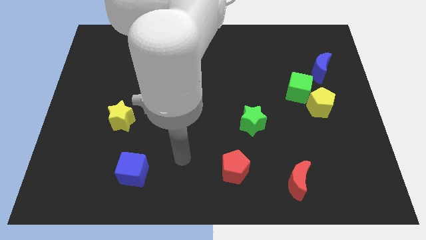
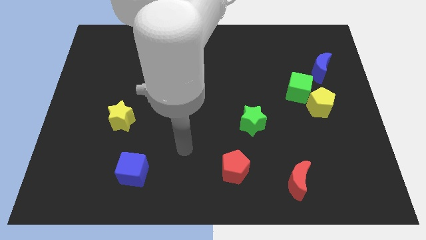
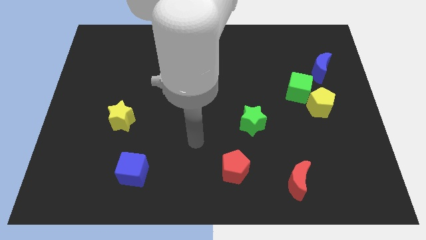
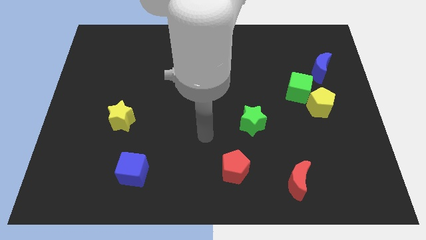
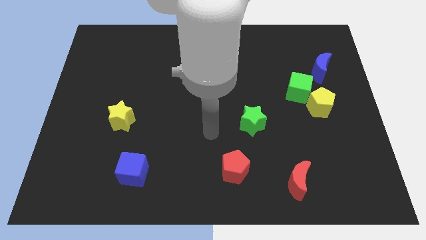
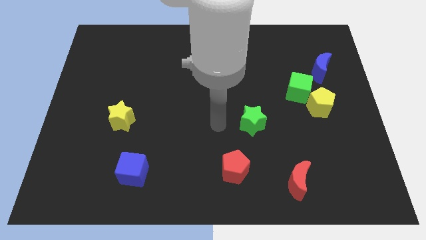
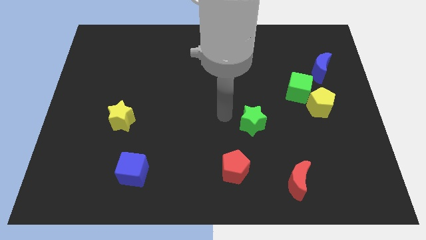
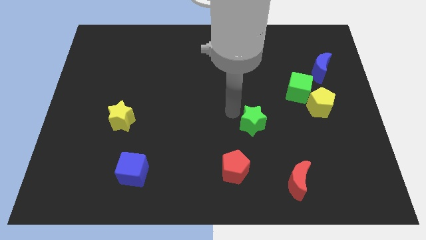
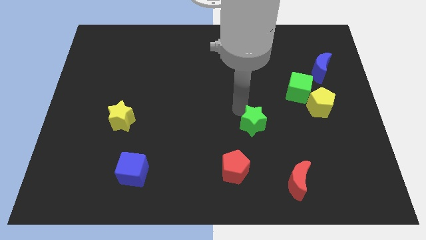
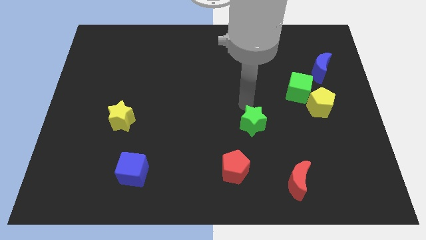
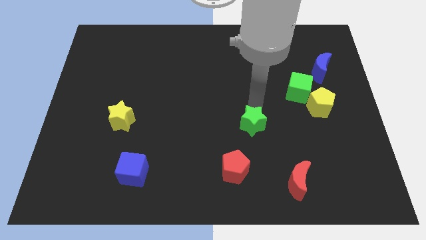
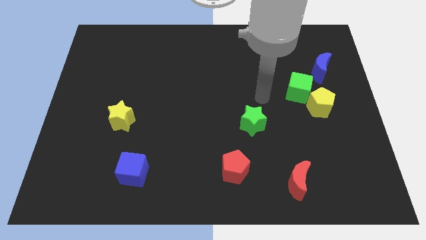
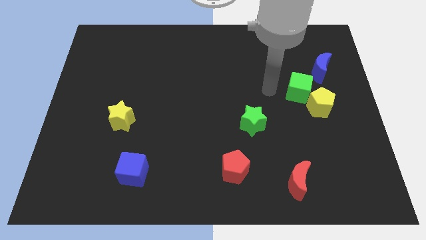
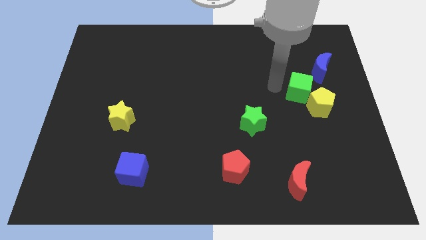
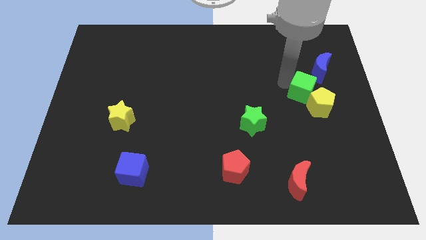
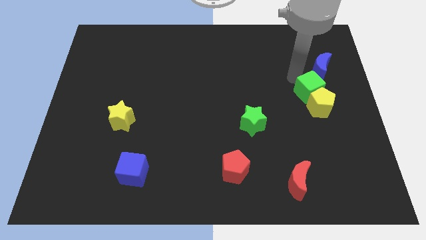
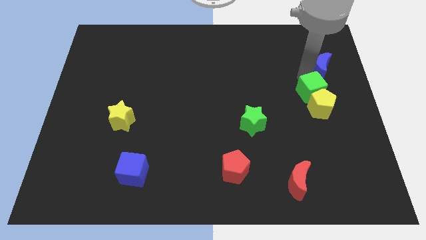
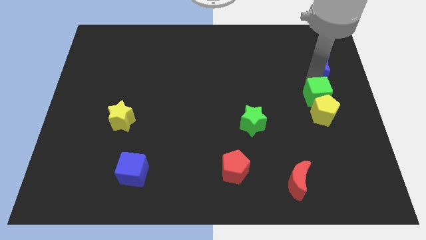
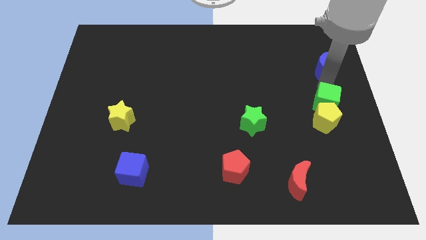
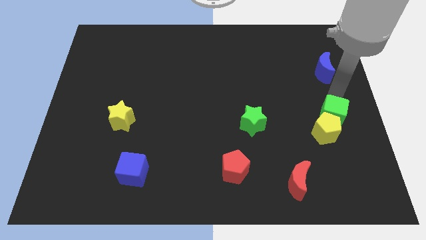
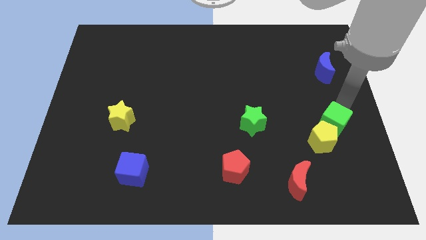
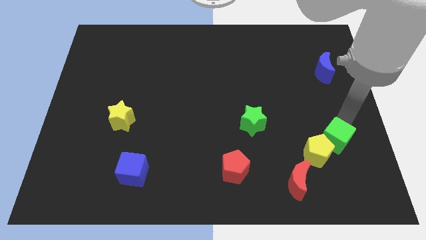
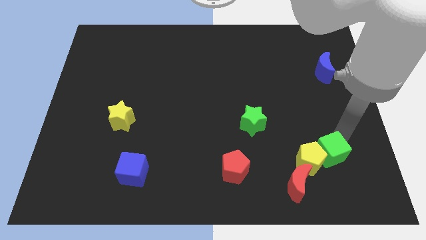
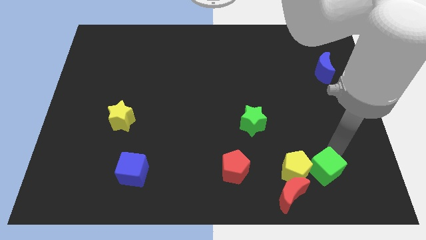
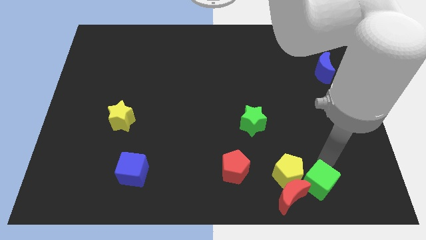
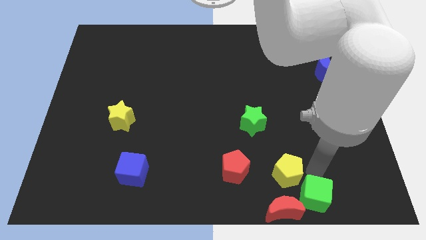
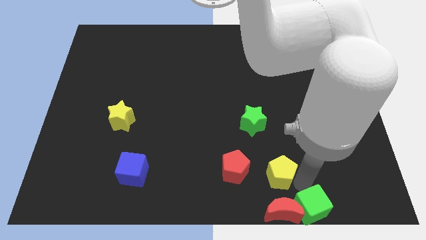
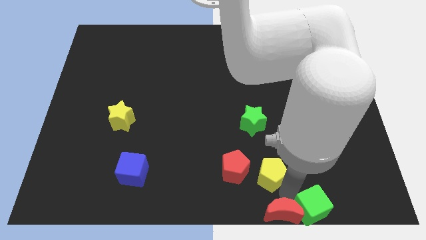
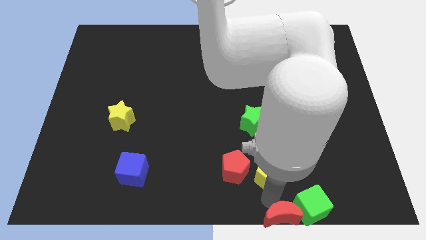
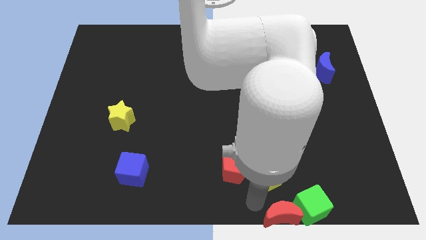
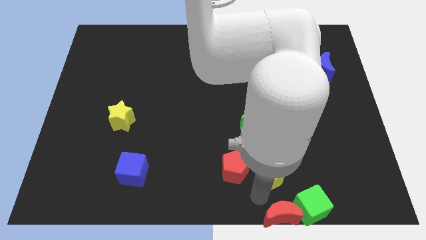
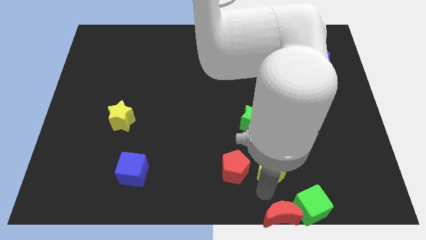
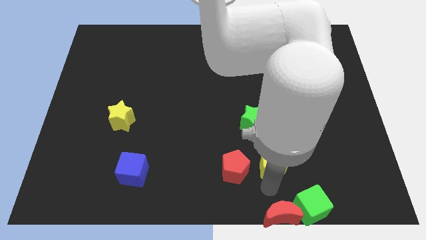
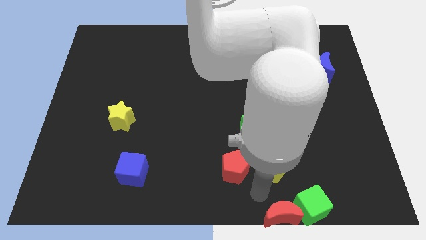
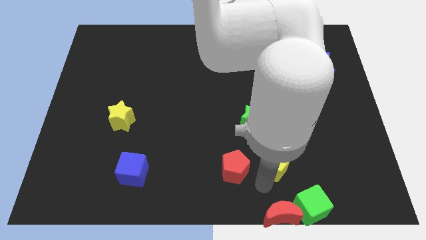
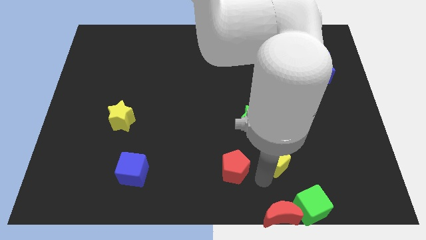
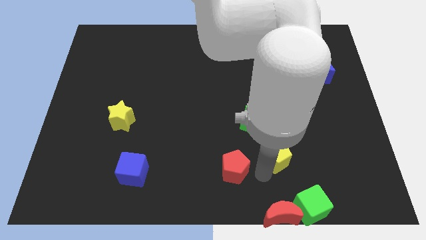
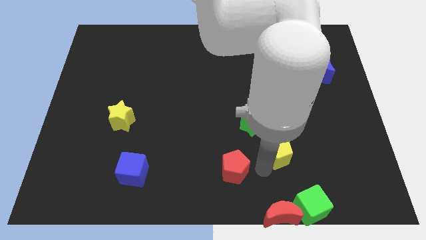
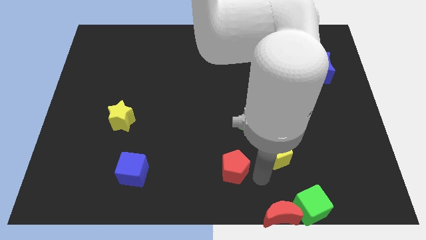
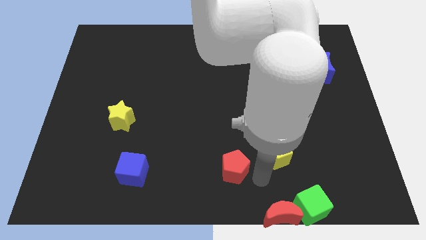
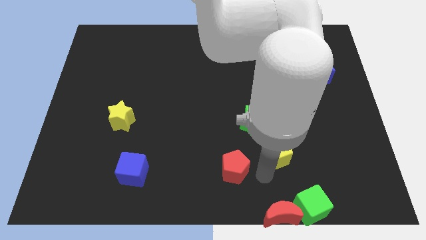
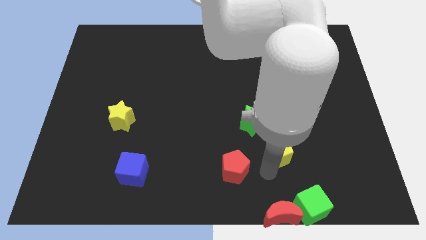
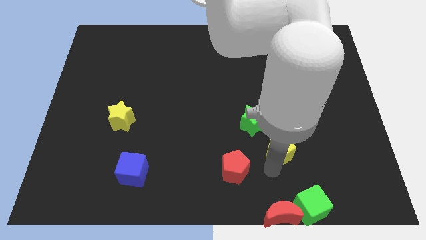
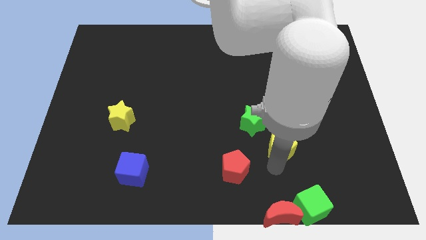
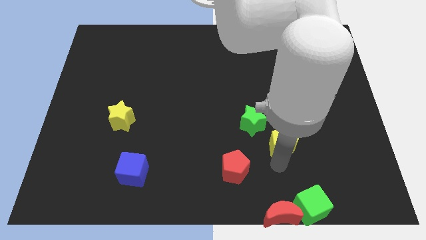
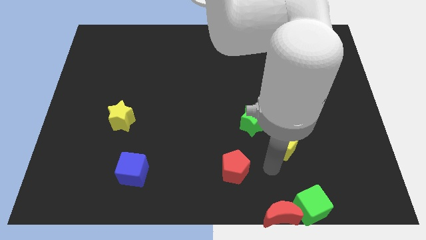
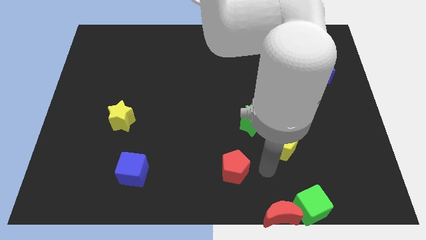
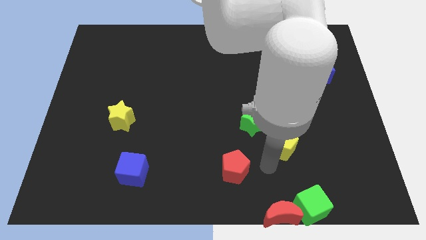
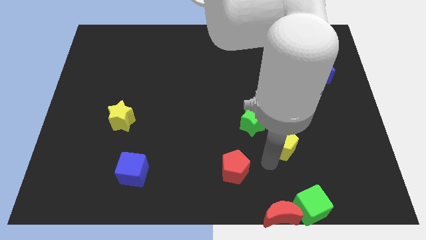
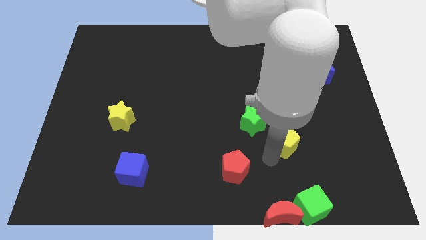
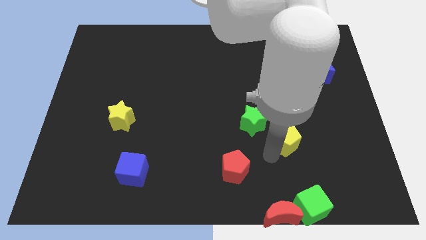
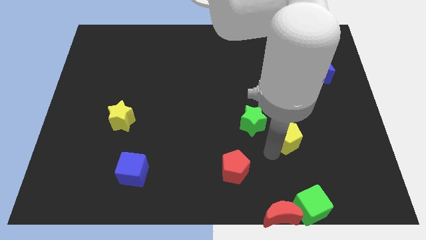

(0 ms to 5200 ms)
put the yellow pentagon right of the green star

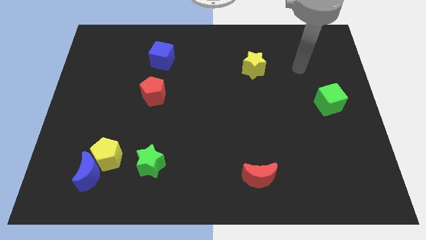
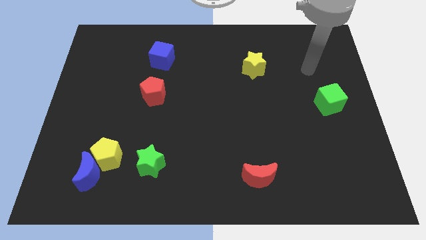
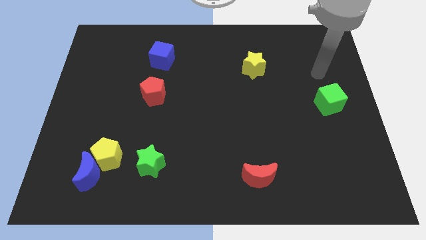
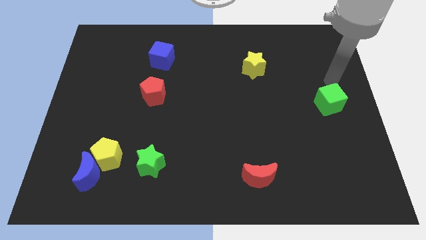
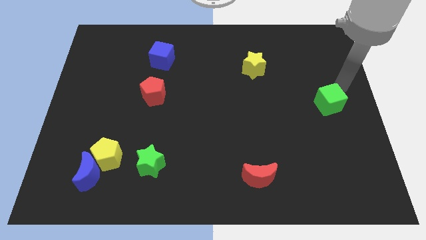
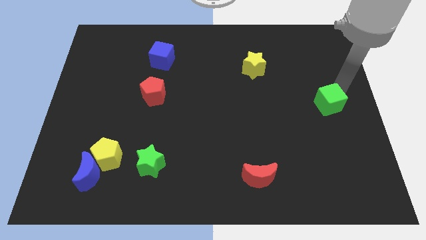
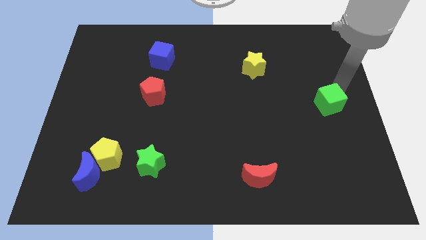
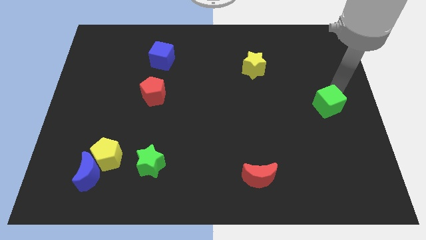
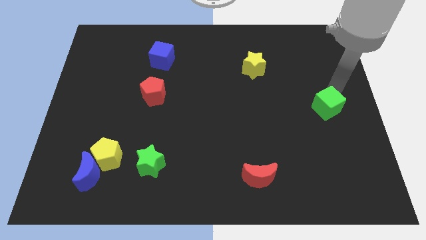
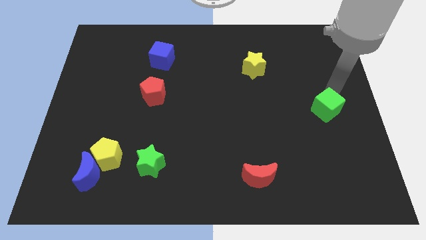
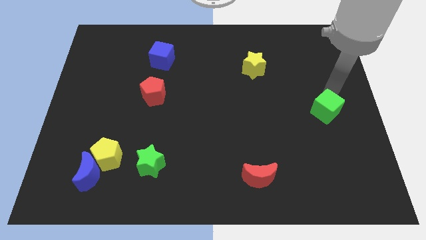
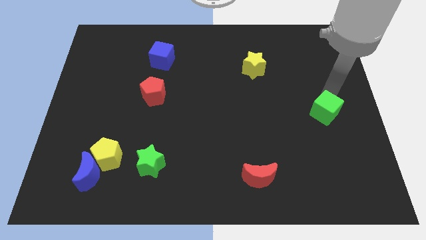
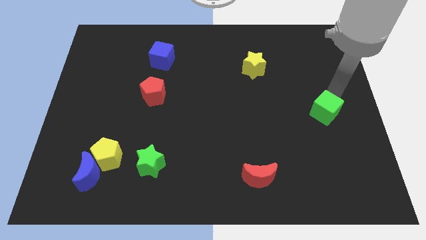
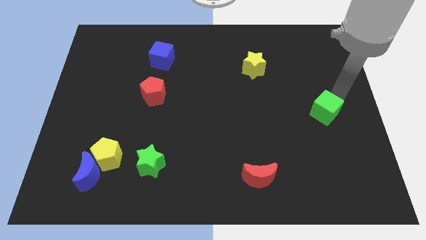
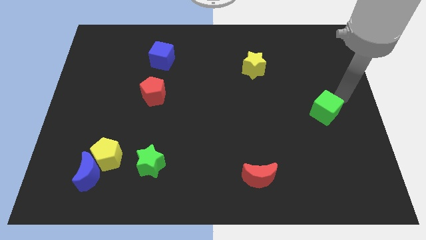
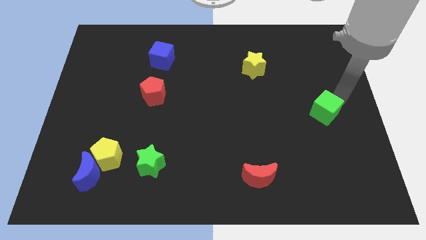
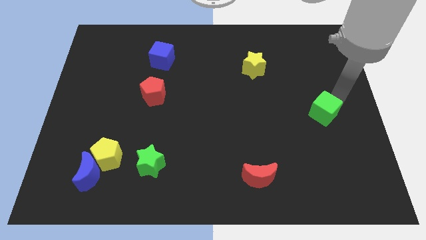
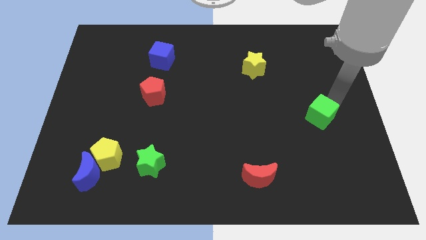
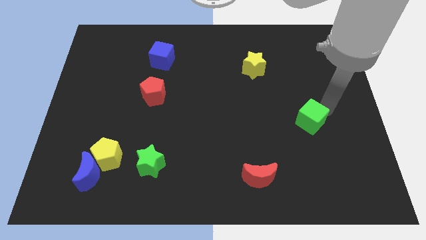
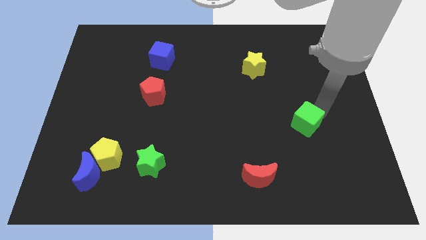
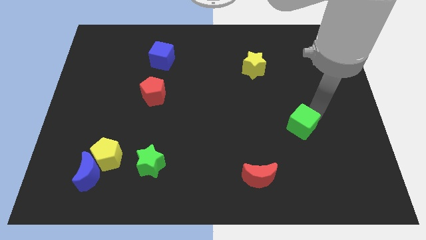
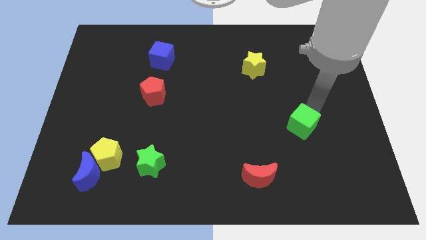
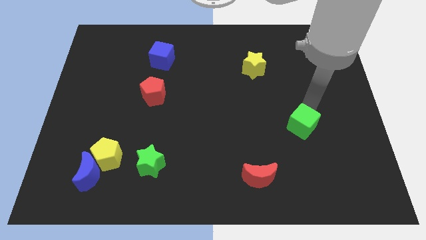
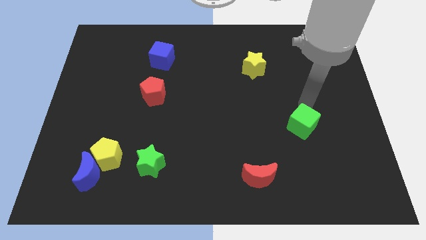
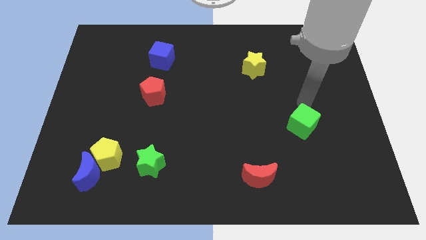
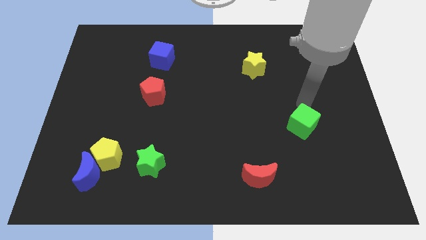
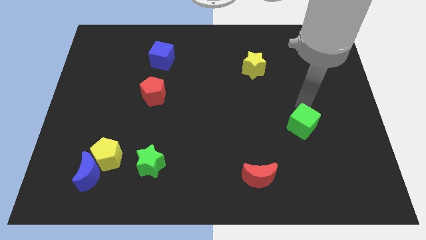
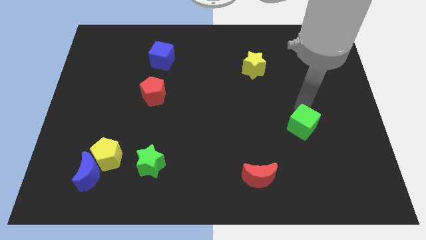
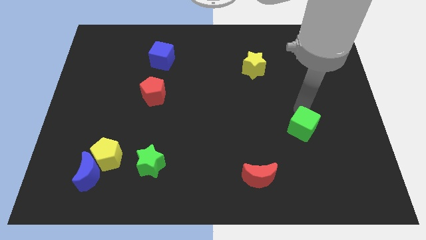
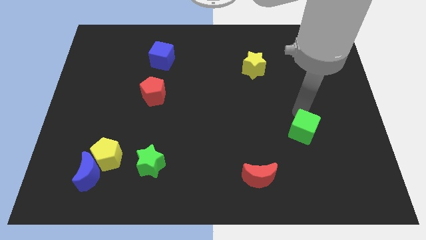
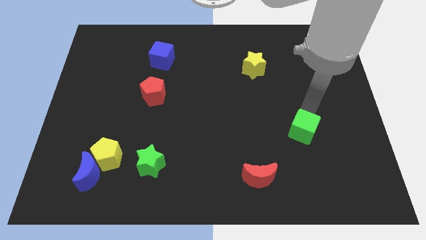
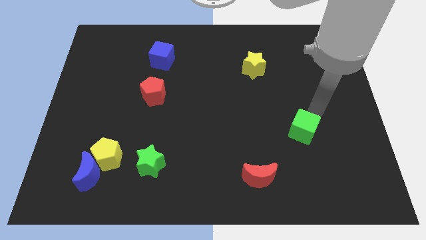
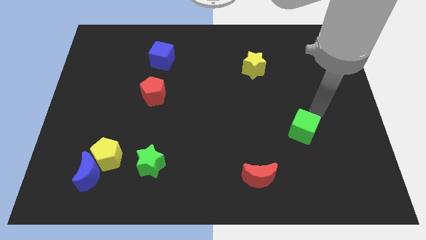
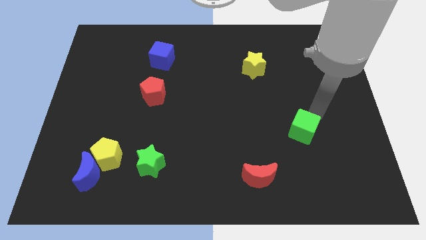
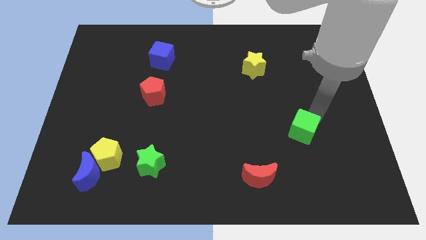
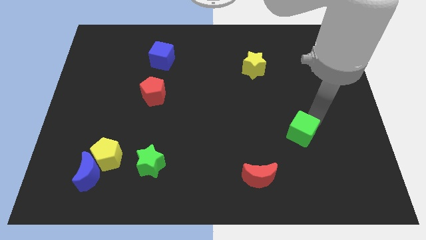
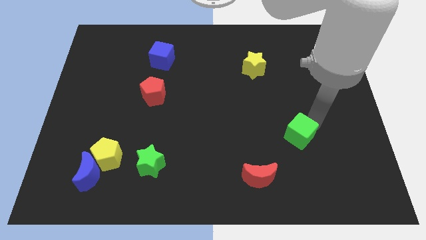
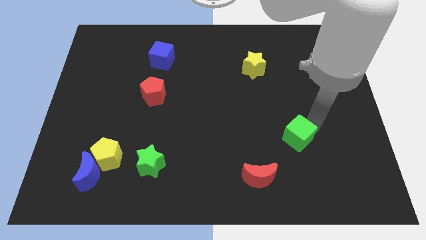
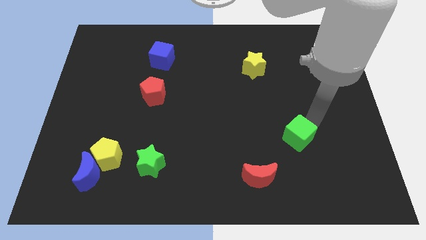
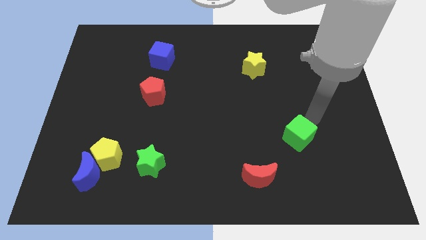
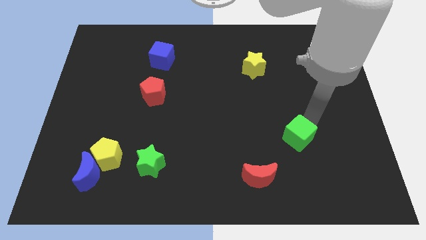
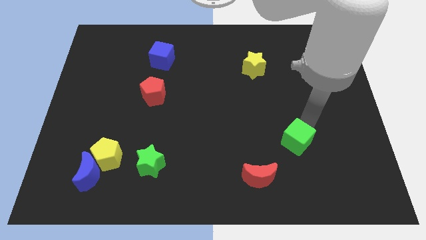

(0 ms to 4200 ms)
push the green cube diagonally up and to the right of the red moon
